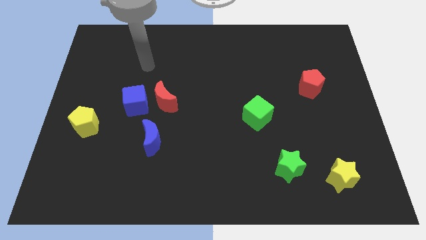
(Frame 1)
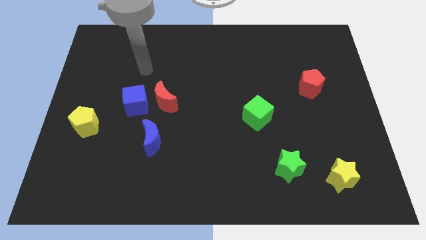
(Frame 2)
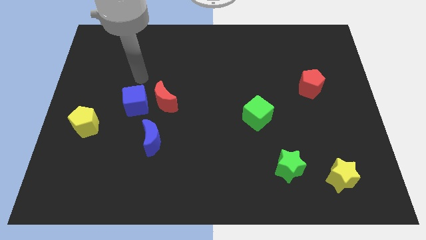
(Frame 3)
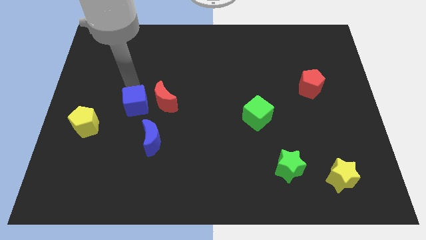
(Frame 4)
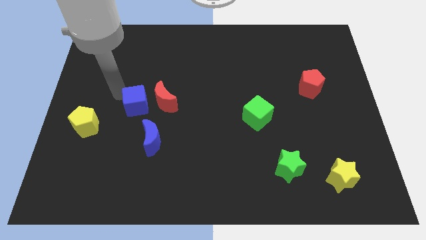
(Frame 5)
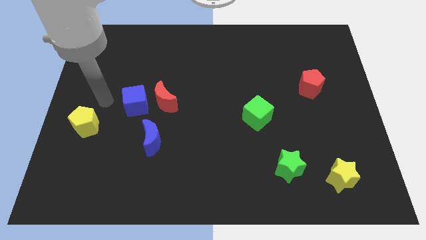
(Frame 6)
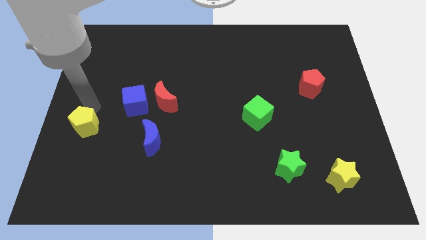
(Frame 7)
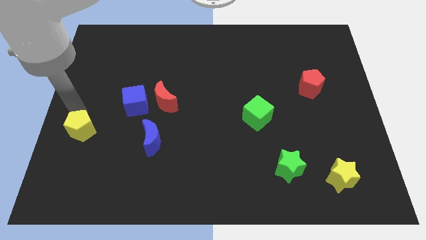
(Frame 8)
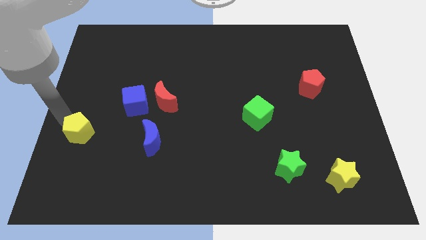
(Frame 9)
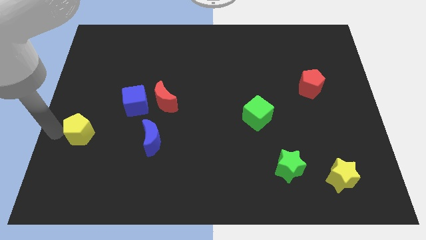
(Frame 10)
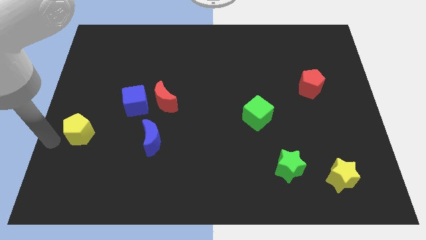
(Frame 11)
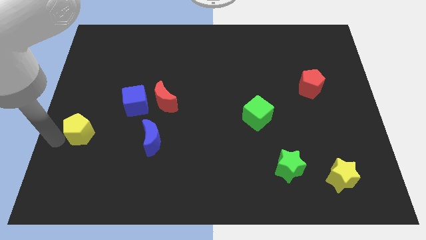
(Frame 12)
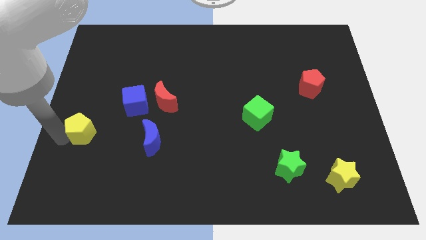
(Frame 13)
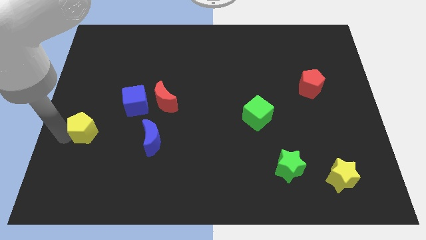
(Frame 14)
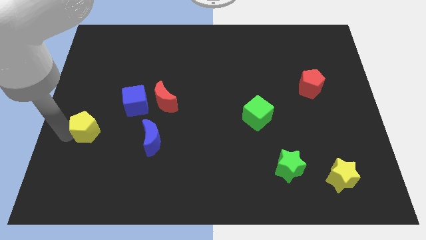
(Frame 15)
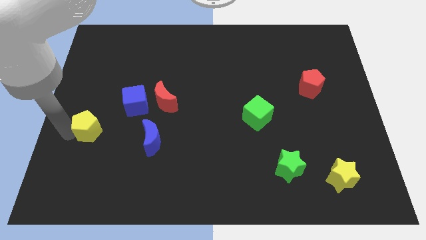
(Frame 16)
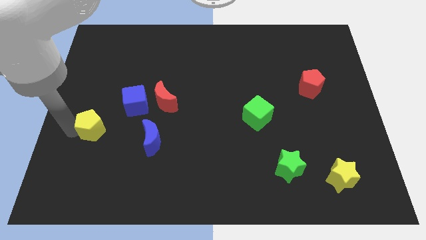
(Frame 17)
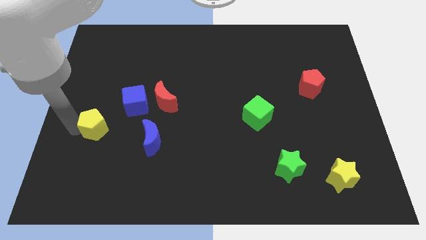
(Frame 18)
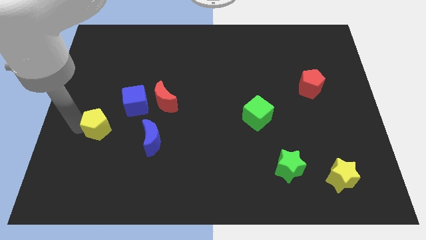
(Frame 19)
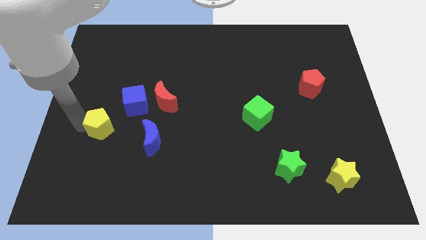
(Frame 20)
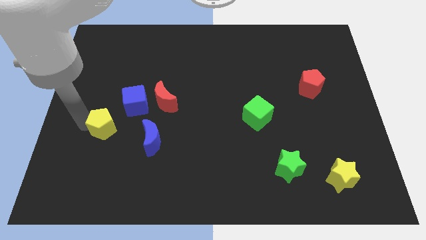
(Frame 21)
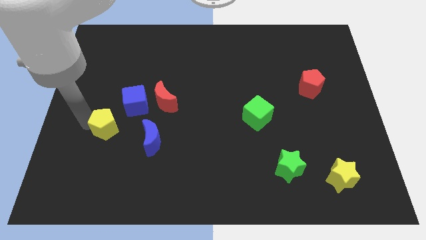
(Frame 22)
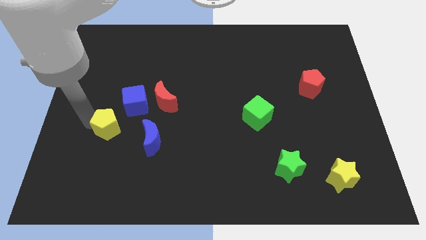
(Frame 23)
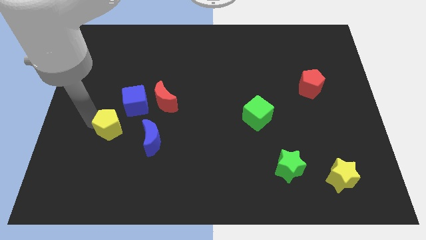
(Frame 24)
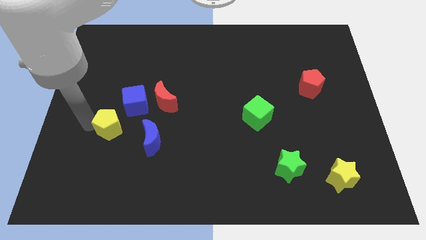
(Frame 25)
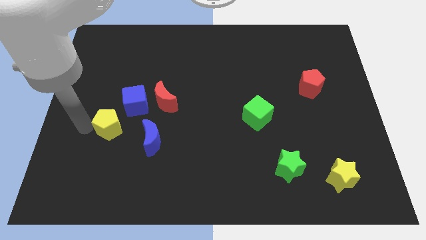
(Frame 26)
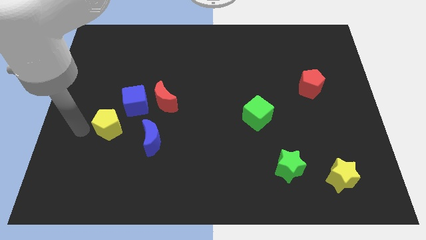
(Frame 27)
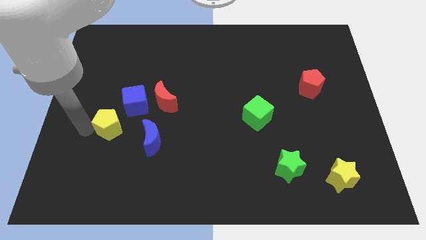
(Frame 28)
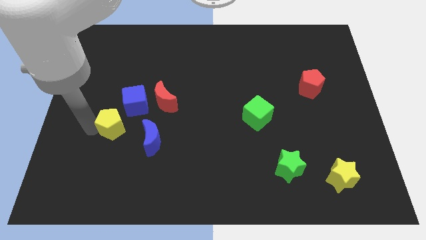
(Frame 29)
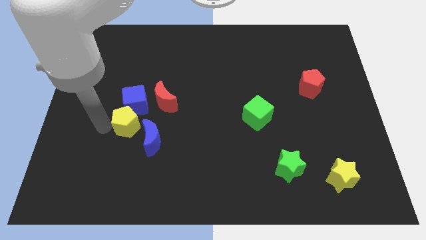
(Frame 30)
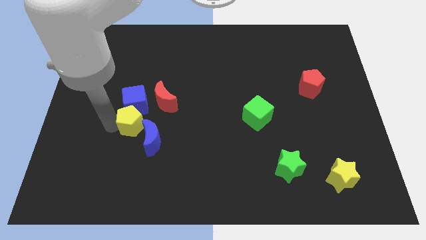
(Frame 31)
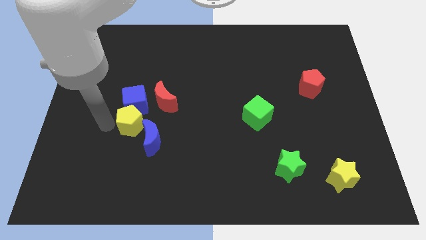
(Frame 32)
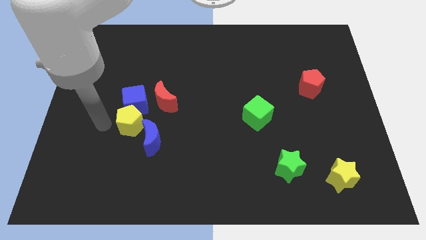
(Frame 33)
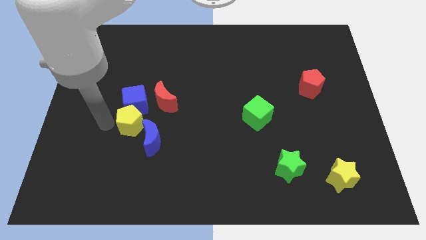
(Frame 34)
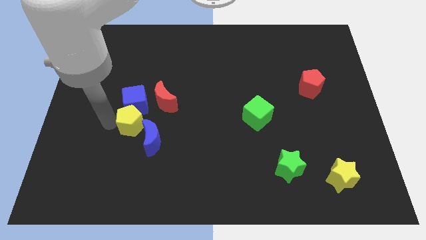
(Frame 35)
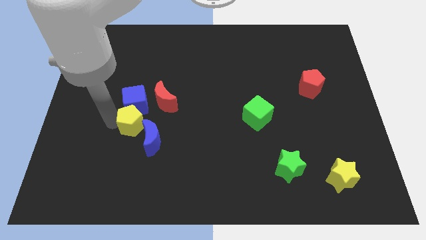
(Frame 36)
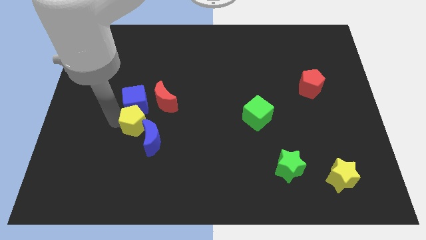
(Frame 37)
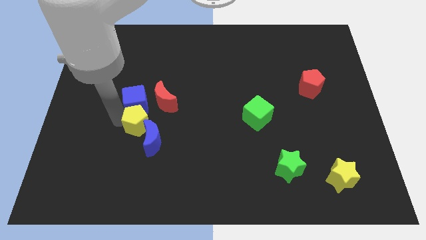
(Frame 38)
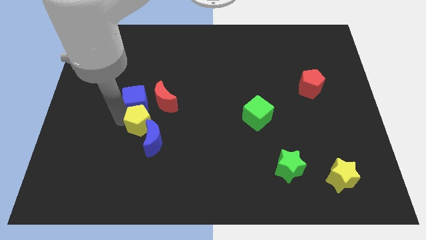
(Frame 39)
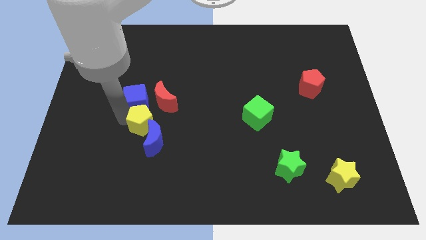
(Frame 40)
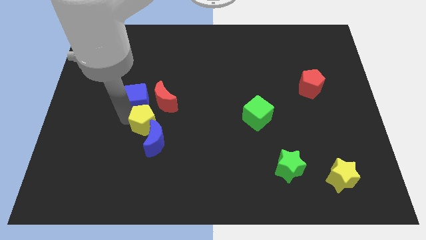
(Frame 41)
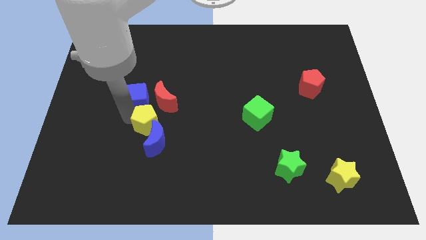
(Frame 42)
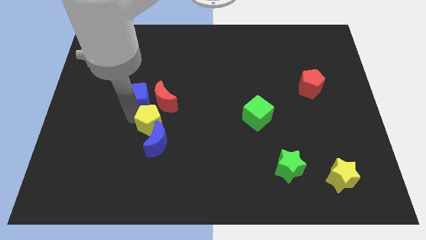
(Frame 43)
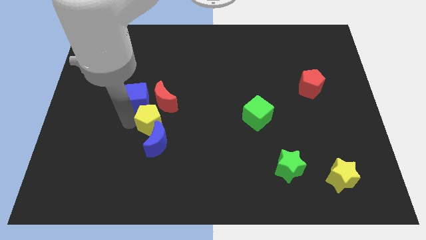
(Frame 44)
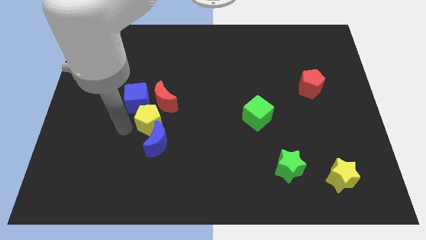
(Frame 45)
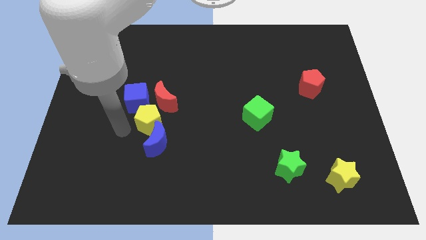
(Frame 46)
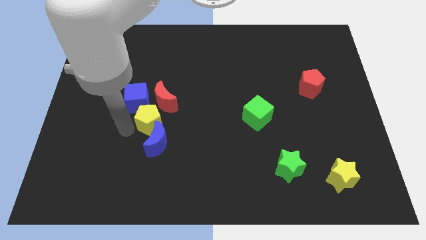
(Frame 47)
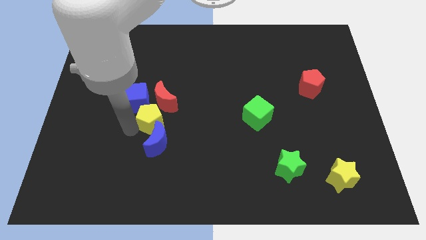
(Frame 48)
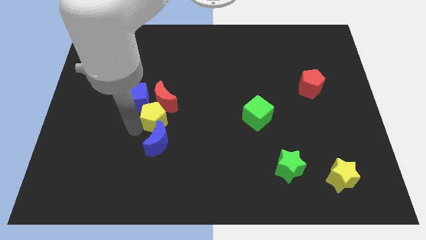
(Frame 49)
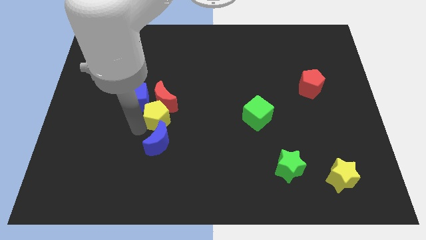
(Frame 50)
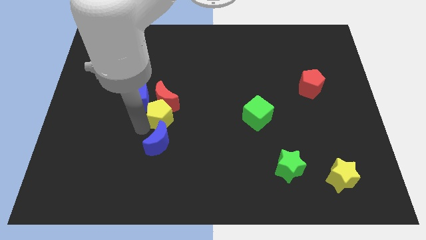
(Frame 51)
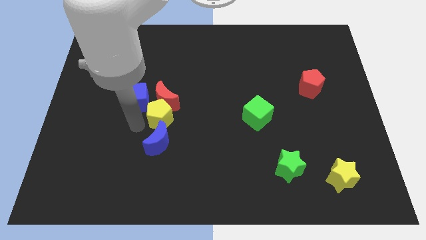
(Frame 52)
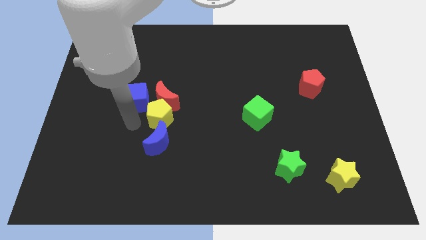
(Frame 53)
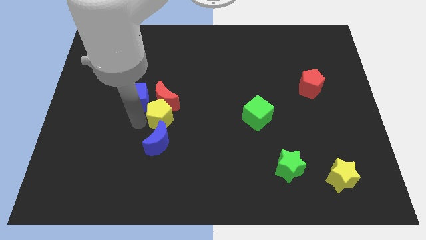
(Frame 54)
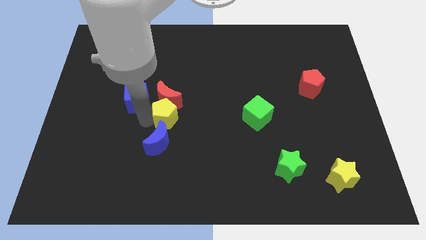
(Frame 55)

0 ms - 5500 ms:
put the yellow pentagon to the middle
